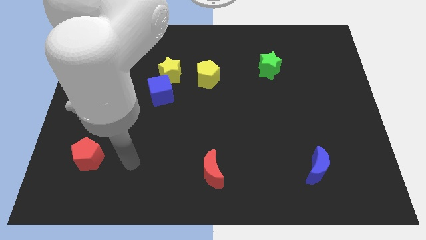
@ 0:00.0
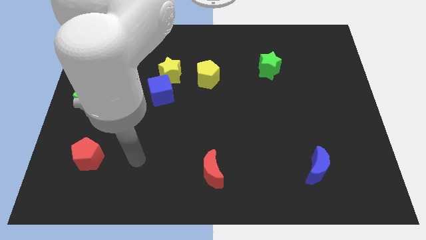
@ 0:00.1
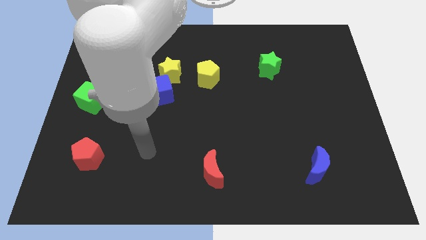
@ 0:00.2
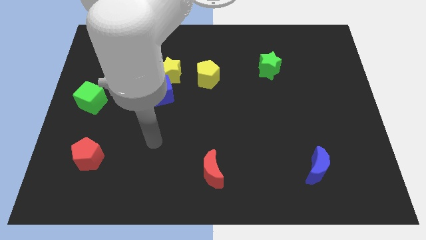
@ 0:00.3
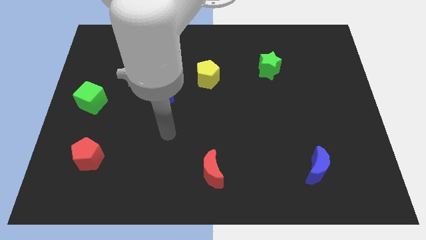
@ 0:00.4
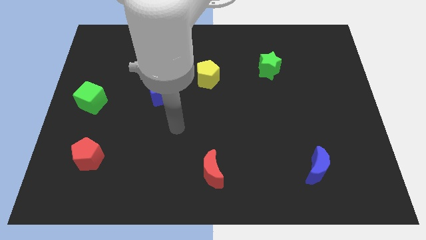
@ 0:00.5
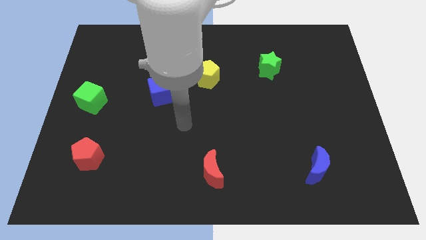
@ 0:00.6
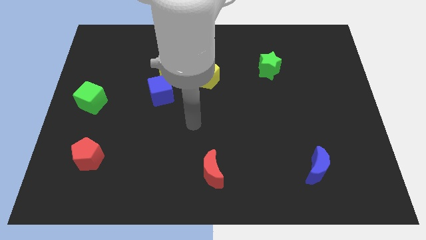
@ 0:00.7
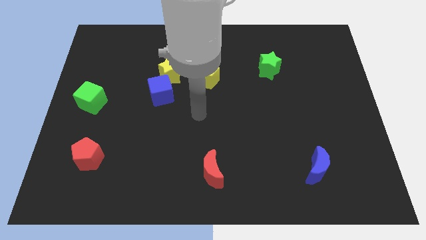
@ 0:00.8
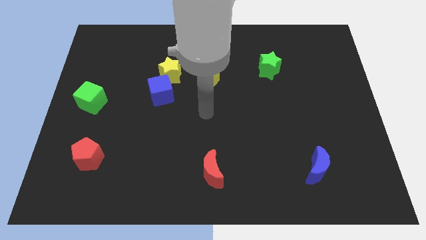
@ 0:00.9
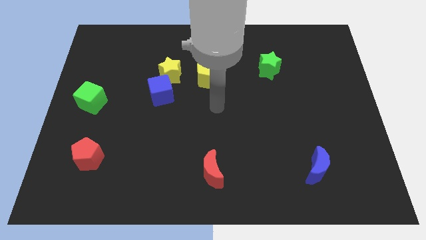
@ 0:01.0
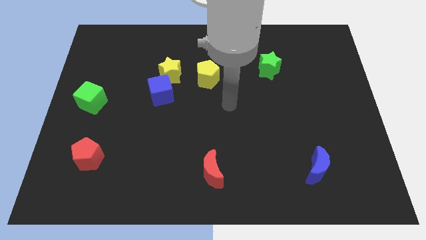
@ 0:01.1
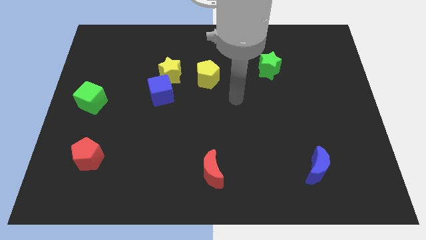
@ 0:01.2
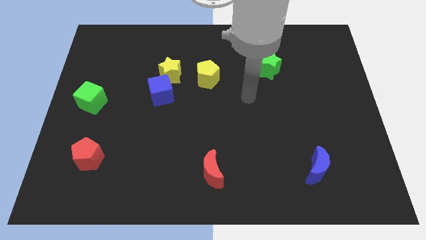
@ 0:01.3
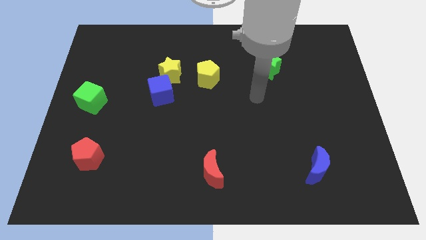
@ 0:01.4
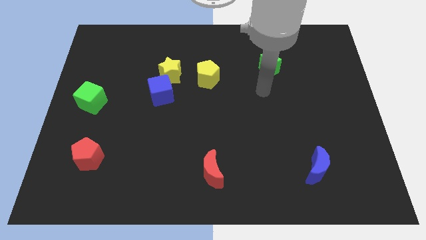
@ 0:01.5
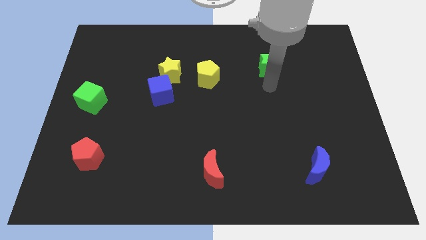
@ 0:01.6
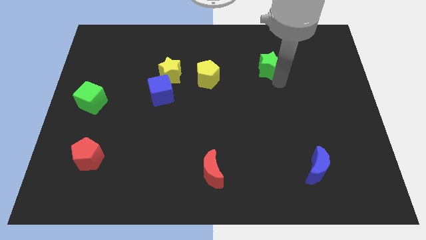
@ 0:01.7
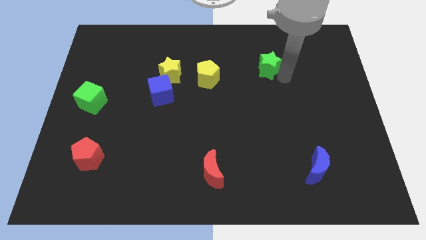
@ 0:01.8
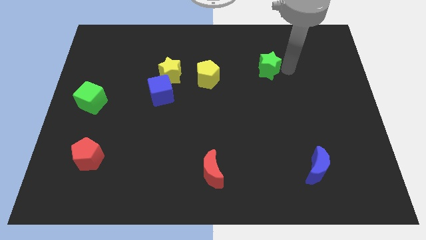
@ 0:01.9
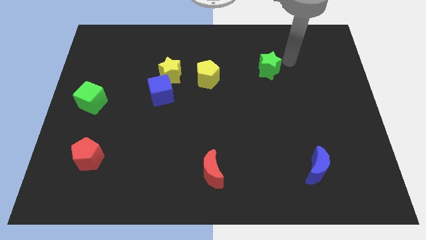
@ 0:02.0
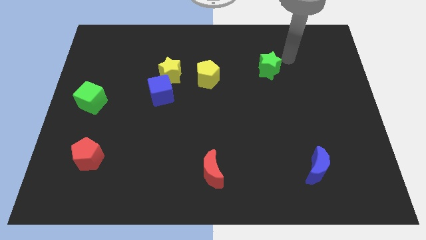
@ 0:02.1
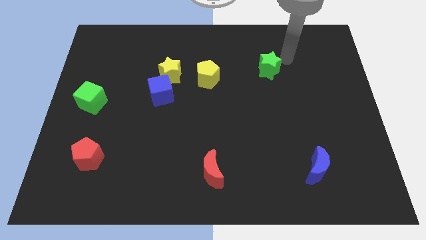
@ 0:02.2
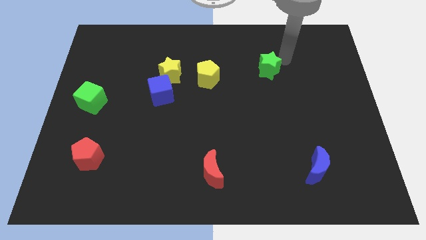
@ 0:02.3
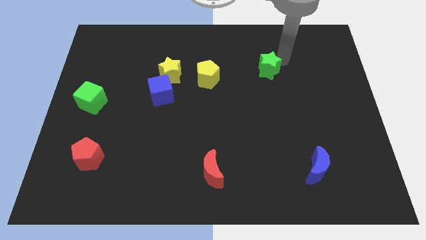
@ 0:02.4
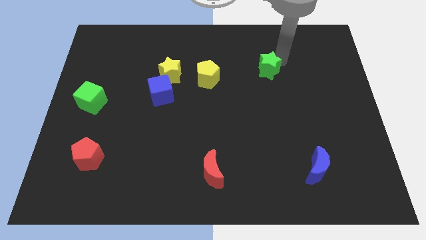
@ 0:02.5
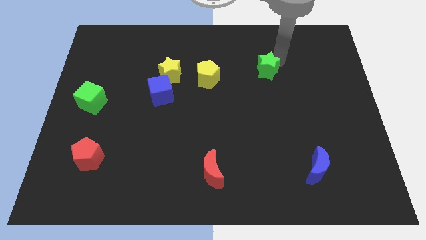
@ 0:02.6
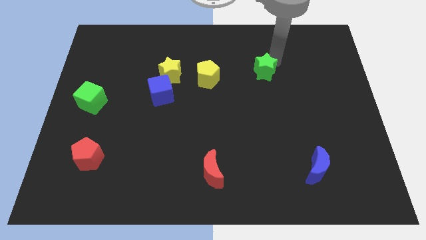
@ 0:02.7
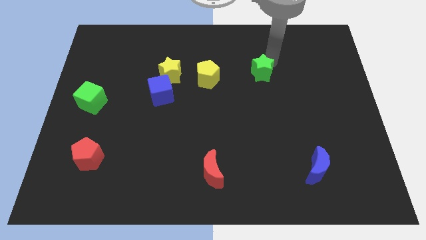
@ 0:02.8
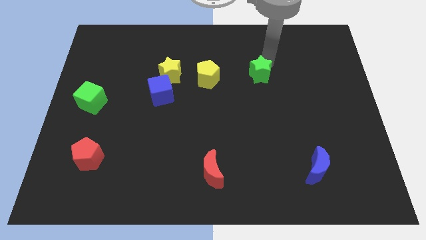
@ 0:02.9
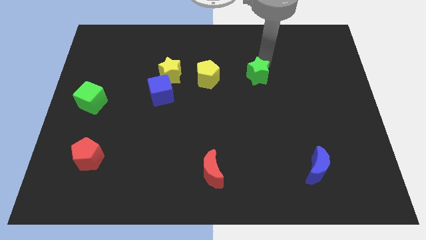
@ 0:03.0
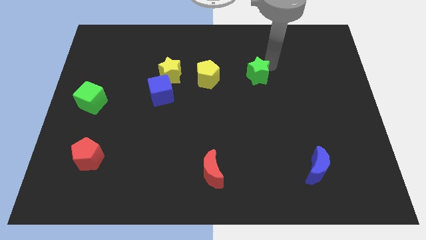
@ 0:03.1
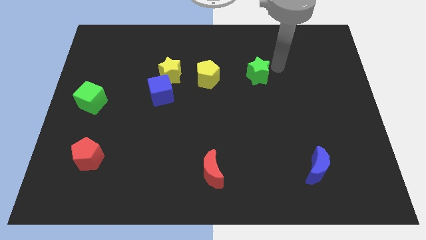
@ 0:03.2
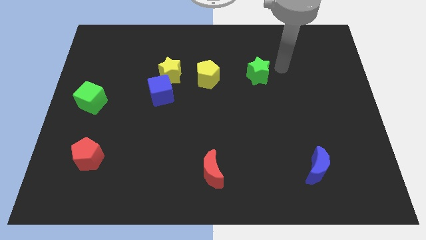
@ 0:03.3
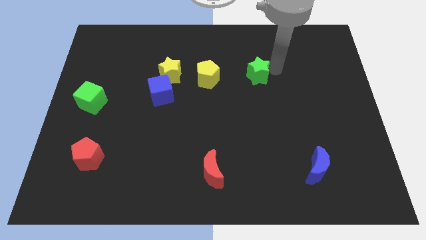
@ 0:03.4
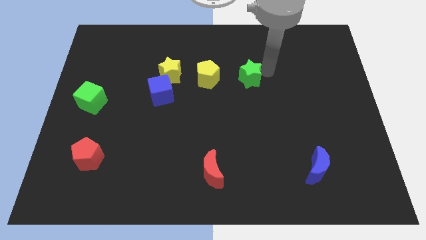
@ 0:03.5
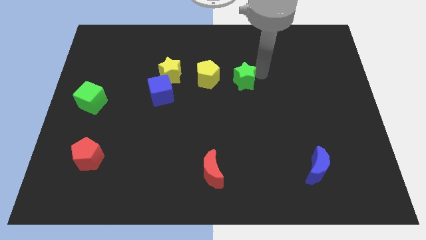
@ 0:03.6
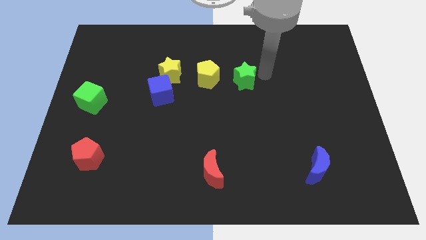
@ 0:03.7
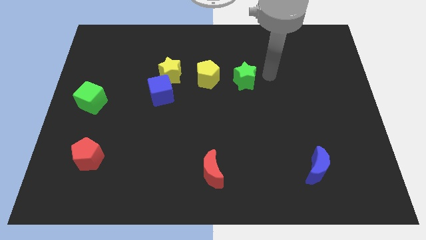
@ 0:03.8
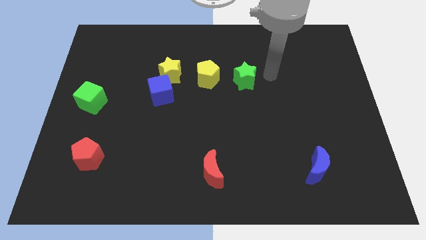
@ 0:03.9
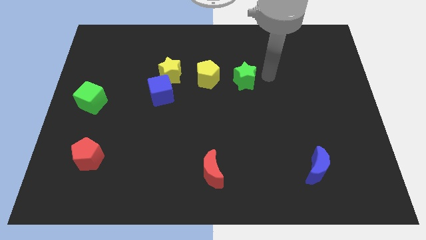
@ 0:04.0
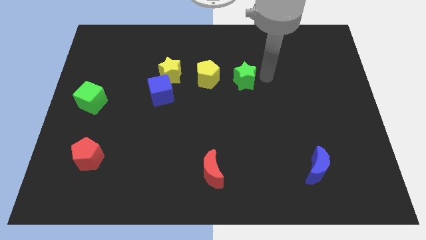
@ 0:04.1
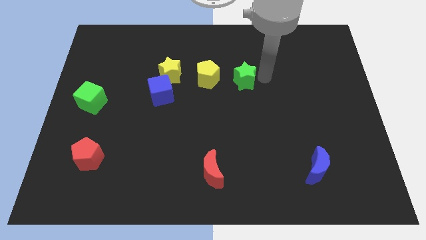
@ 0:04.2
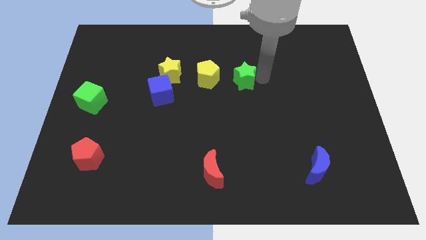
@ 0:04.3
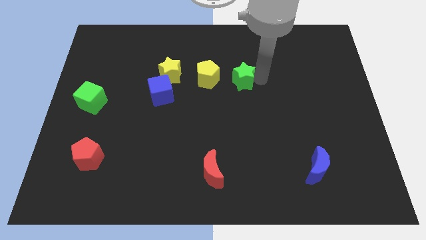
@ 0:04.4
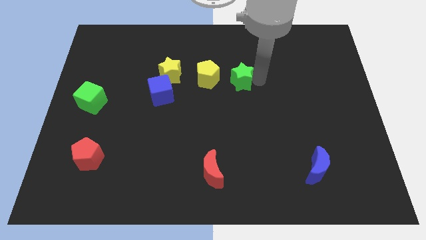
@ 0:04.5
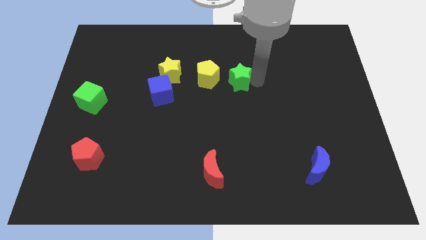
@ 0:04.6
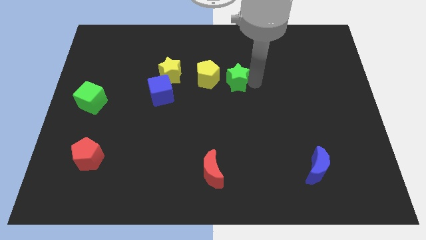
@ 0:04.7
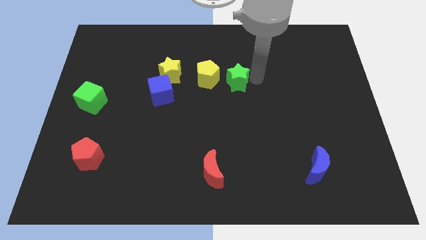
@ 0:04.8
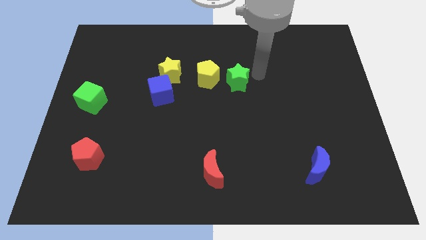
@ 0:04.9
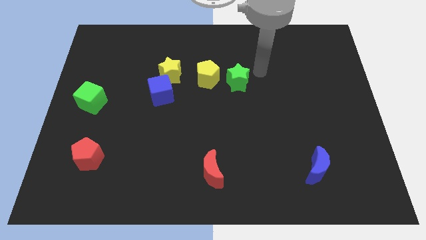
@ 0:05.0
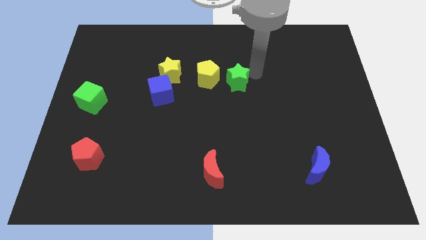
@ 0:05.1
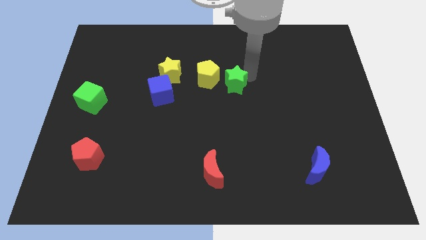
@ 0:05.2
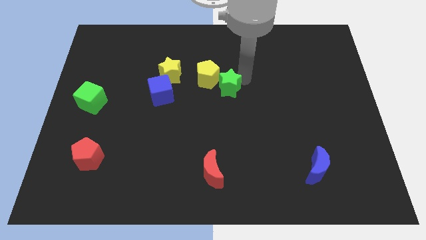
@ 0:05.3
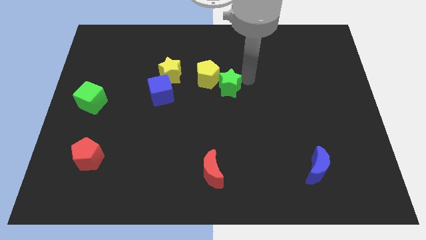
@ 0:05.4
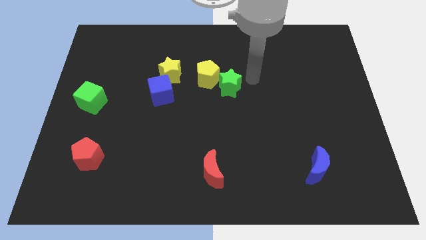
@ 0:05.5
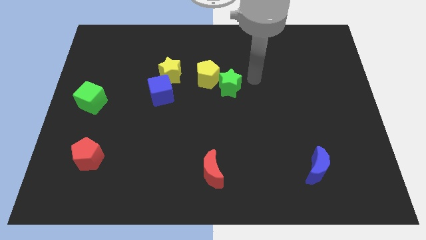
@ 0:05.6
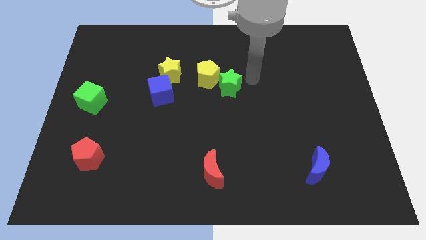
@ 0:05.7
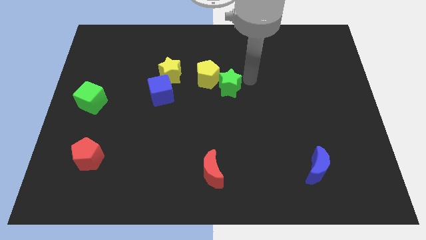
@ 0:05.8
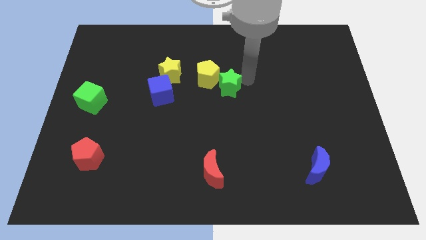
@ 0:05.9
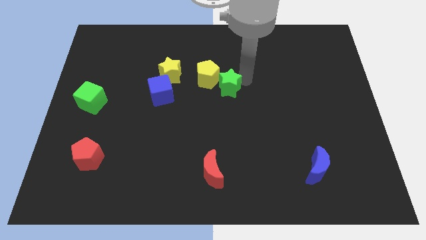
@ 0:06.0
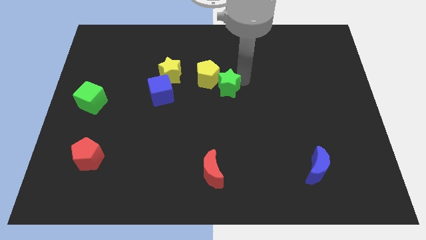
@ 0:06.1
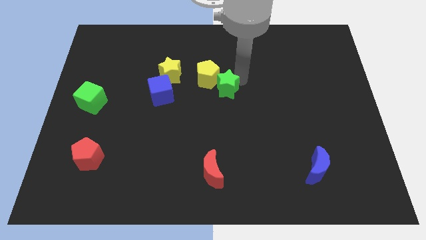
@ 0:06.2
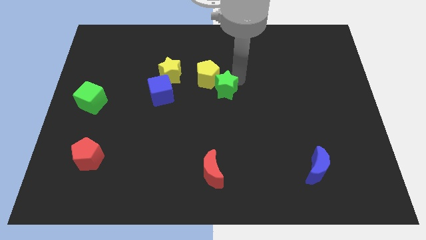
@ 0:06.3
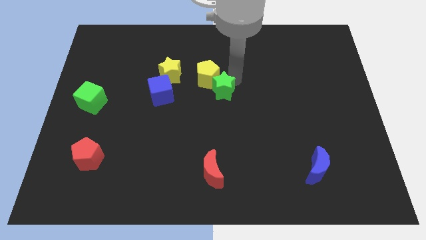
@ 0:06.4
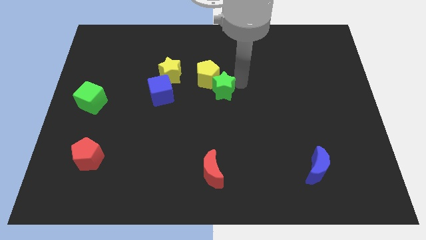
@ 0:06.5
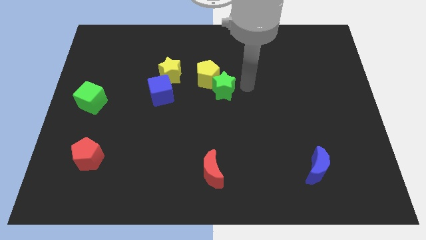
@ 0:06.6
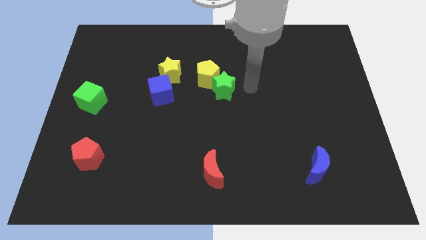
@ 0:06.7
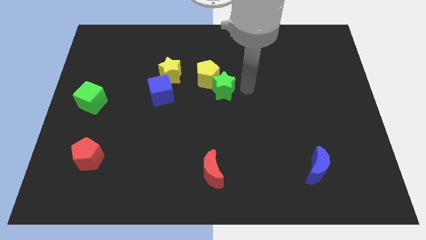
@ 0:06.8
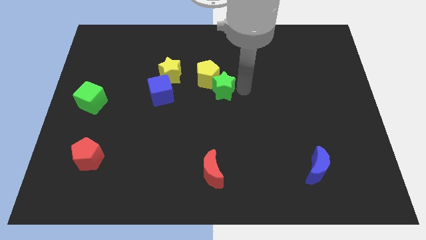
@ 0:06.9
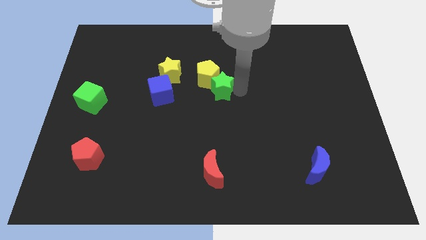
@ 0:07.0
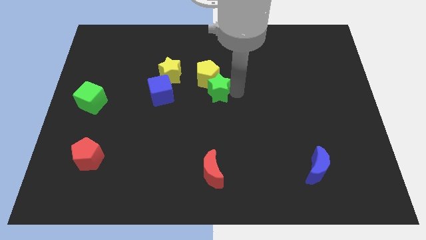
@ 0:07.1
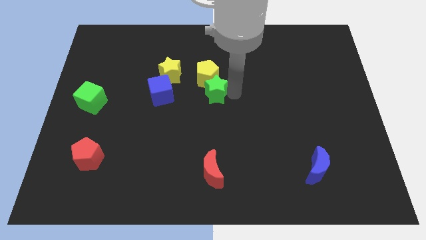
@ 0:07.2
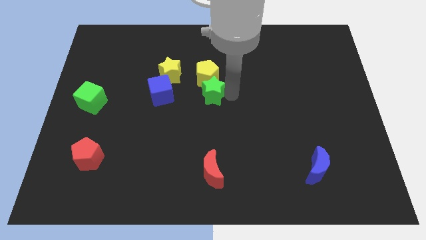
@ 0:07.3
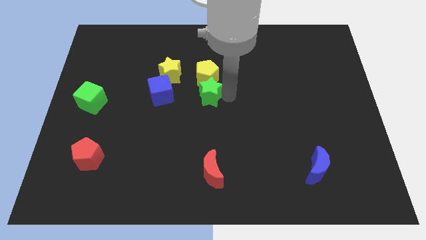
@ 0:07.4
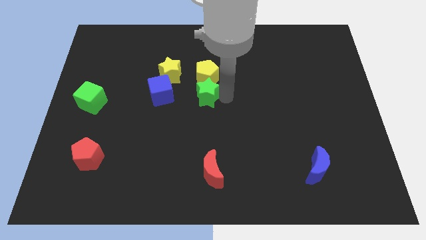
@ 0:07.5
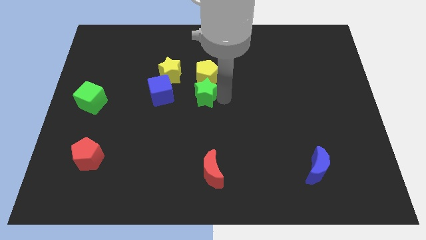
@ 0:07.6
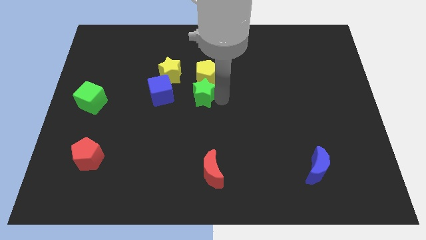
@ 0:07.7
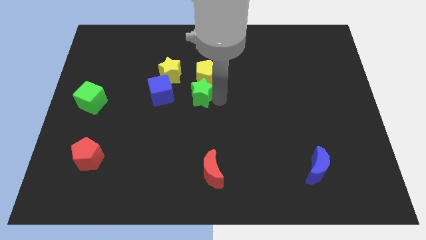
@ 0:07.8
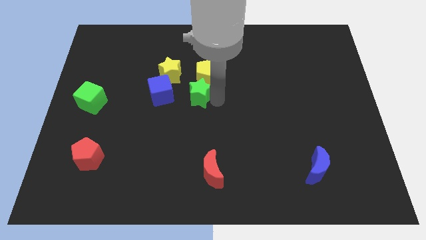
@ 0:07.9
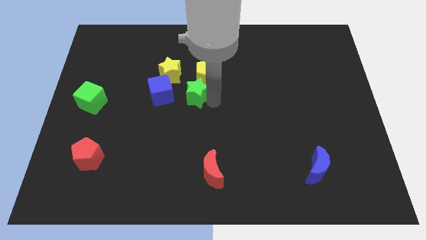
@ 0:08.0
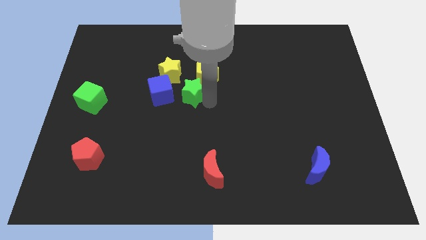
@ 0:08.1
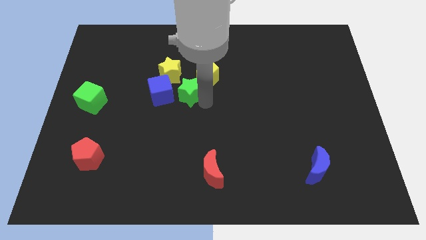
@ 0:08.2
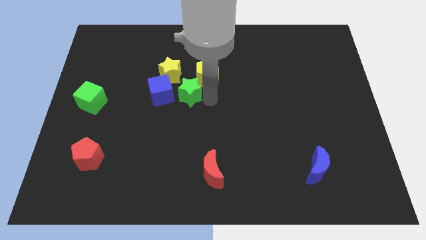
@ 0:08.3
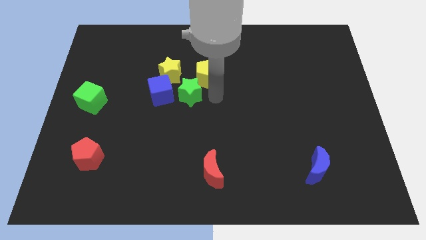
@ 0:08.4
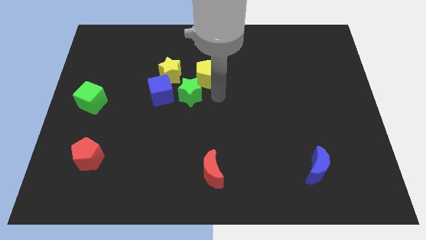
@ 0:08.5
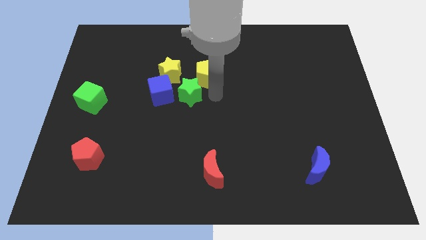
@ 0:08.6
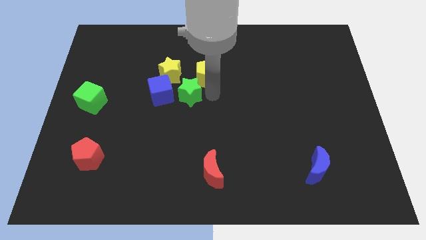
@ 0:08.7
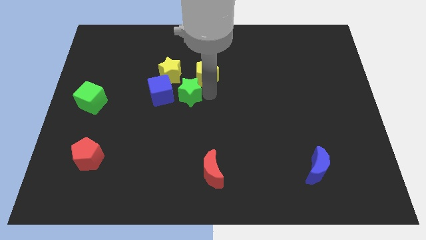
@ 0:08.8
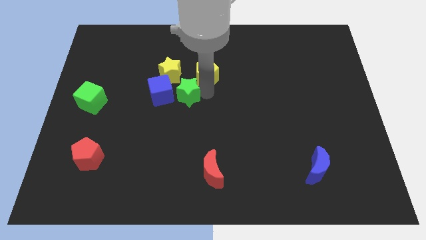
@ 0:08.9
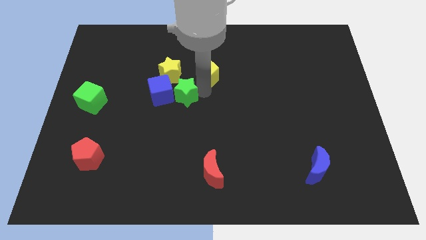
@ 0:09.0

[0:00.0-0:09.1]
push the green star next to the blue cube

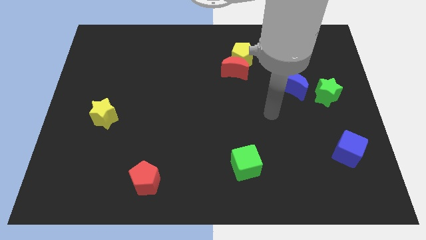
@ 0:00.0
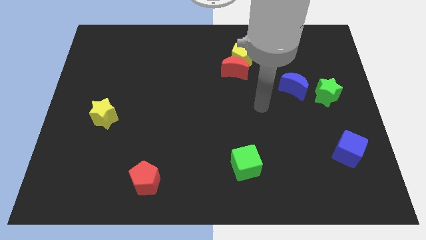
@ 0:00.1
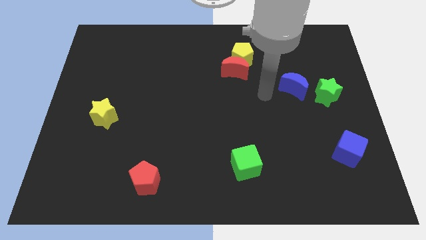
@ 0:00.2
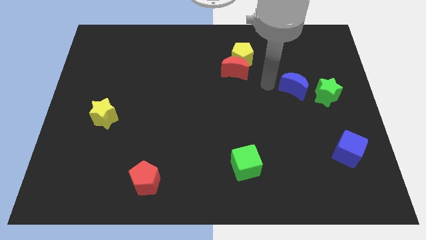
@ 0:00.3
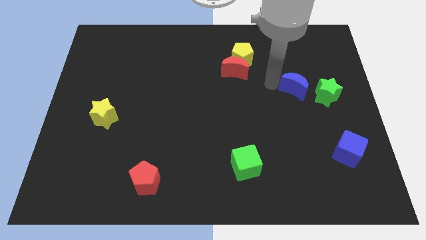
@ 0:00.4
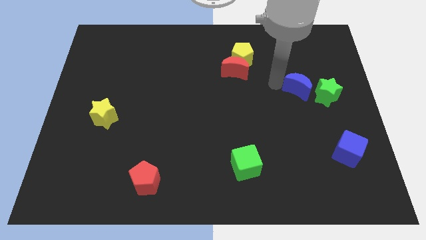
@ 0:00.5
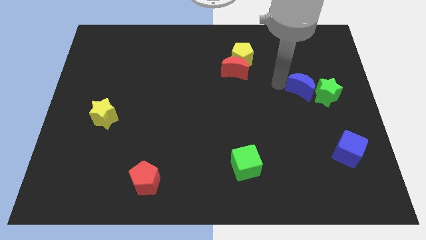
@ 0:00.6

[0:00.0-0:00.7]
slide the blue moon next to the green star
